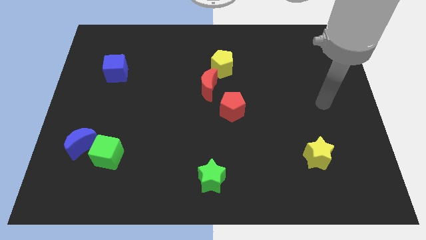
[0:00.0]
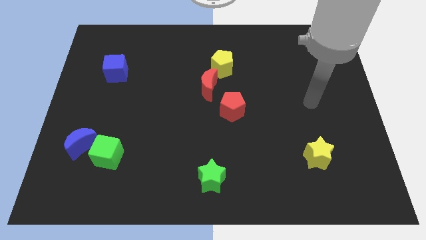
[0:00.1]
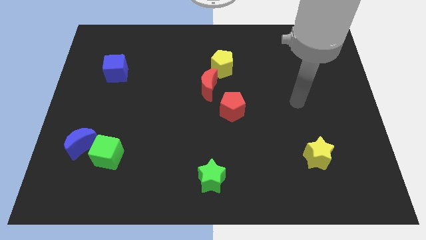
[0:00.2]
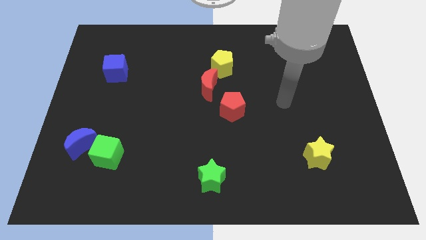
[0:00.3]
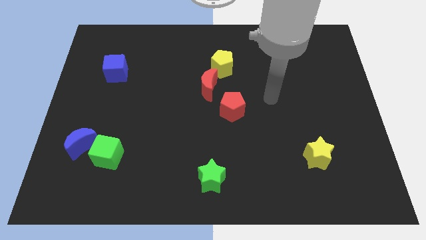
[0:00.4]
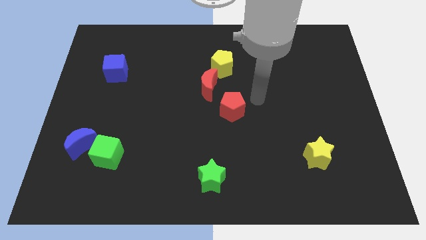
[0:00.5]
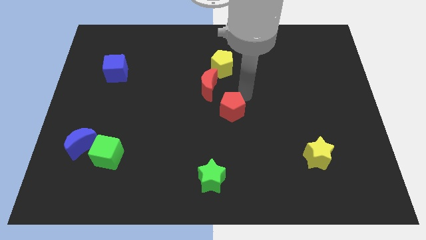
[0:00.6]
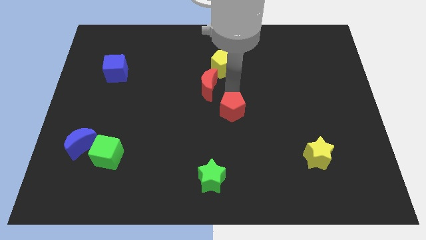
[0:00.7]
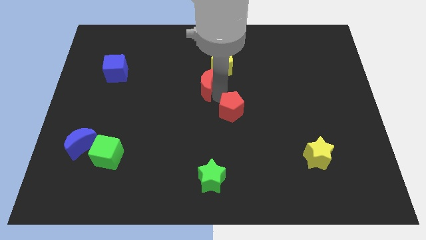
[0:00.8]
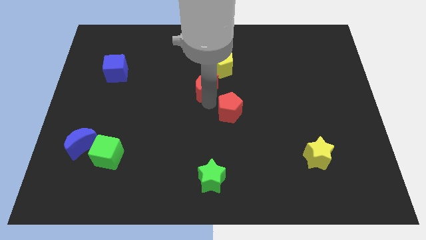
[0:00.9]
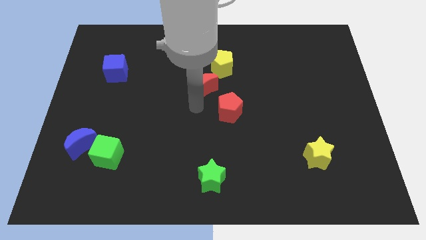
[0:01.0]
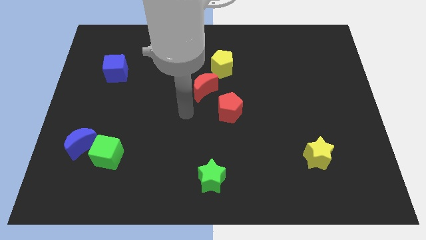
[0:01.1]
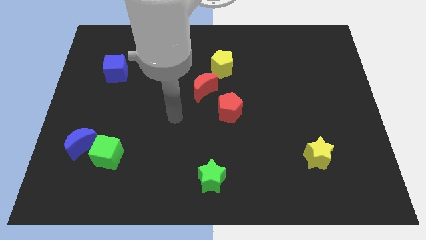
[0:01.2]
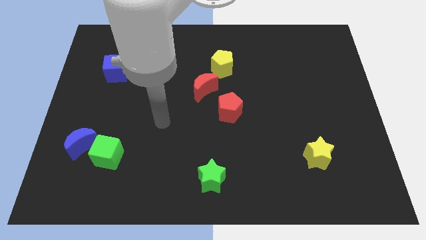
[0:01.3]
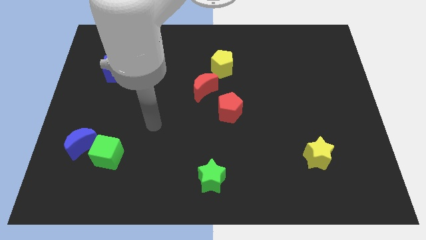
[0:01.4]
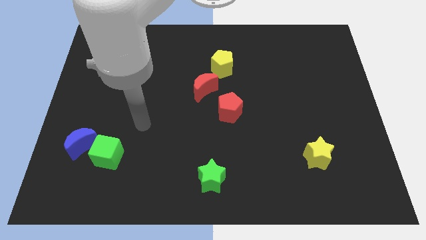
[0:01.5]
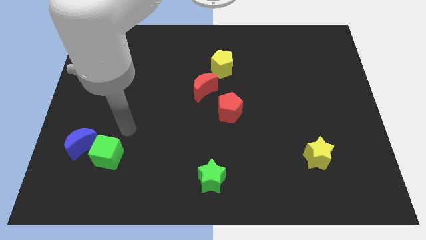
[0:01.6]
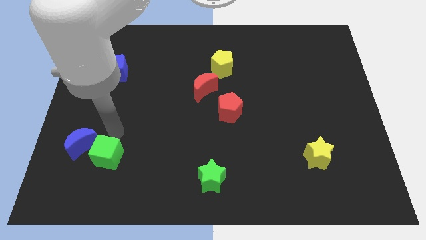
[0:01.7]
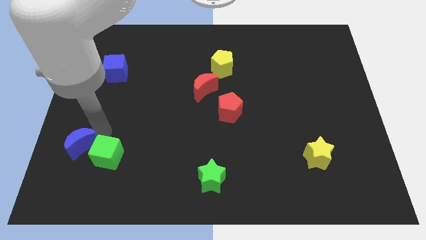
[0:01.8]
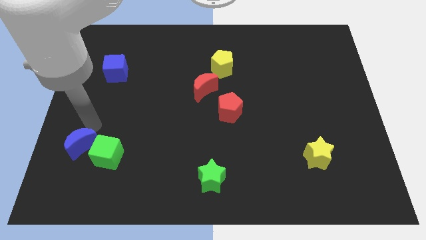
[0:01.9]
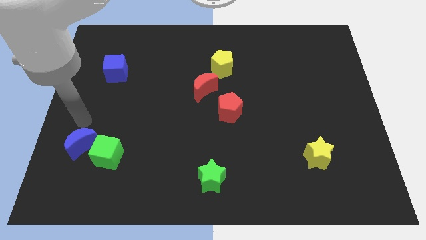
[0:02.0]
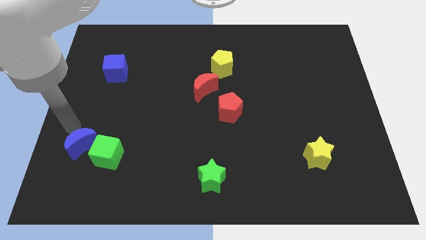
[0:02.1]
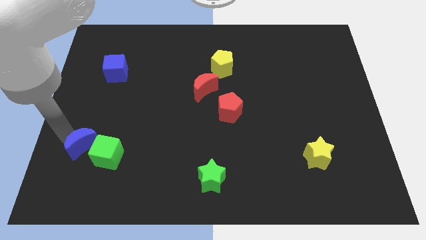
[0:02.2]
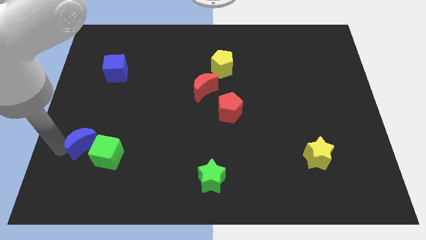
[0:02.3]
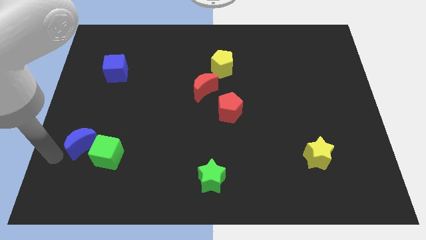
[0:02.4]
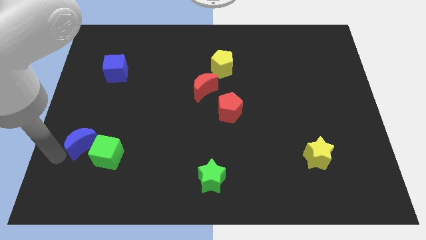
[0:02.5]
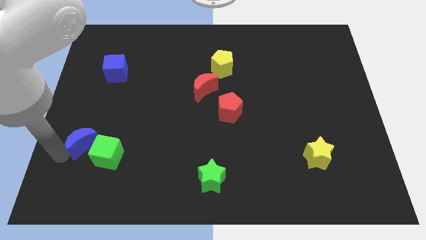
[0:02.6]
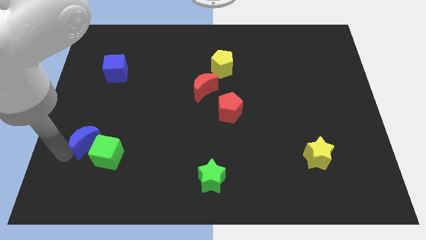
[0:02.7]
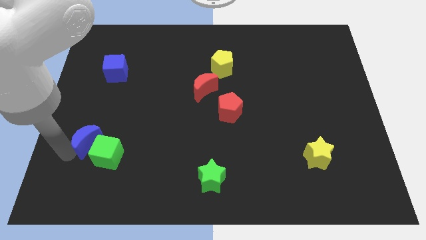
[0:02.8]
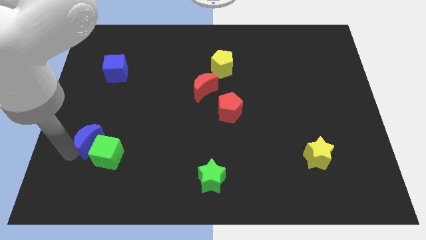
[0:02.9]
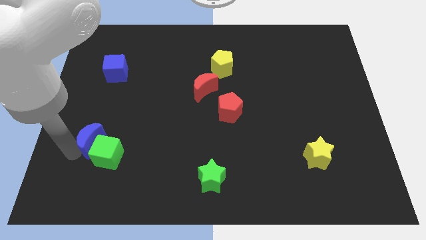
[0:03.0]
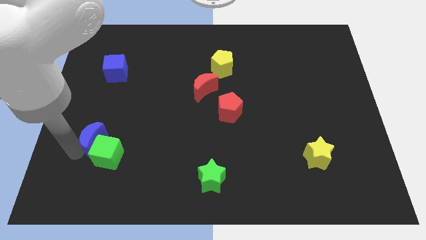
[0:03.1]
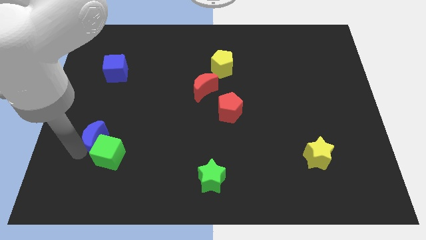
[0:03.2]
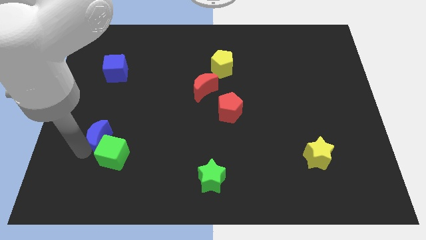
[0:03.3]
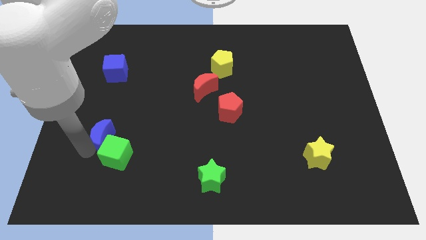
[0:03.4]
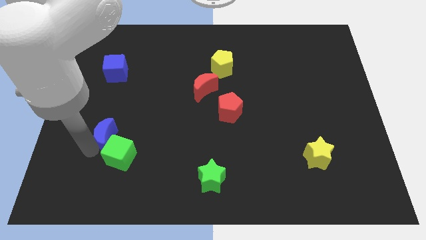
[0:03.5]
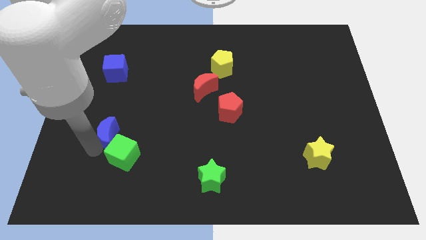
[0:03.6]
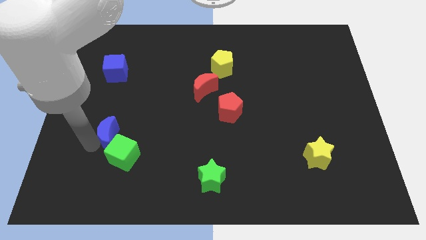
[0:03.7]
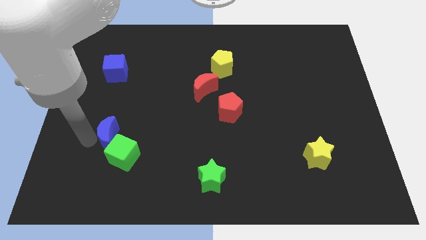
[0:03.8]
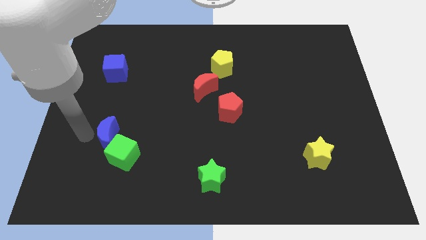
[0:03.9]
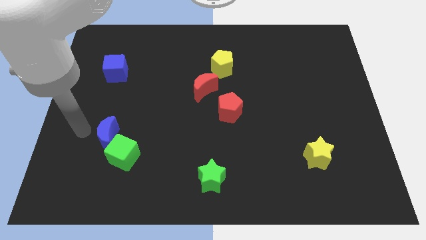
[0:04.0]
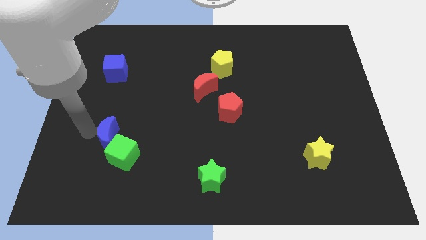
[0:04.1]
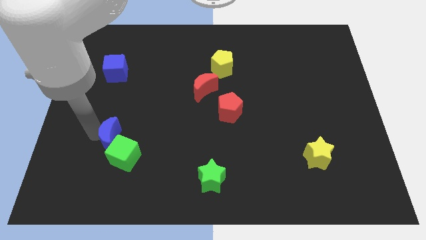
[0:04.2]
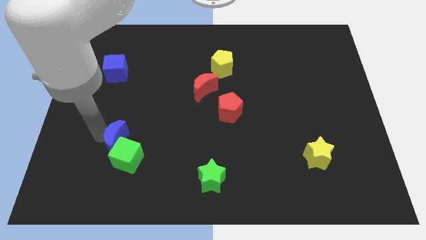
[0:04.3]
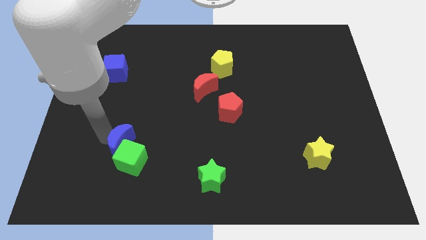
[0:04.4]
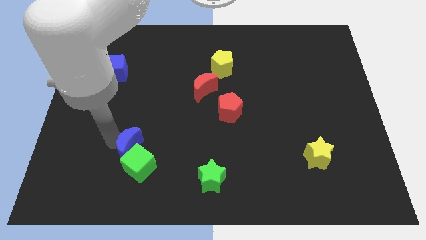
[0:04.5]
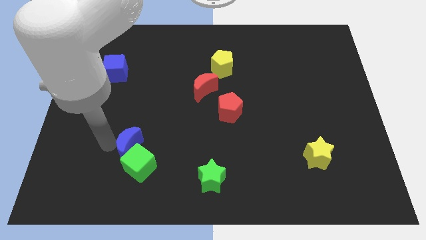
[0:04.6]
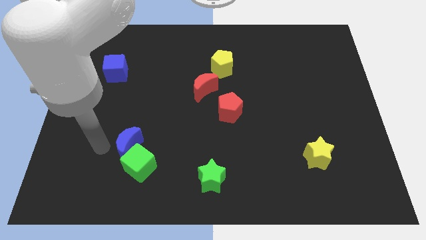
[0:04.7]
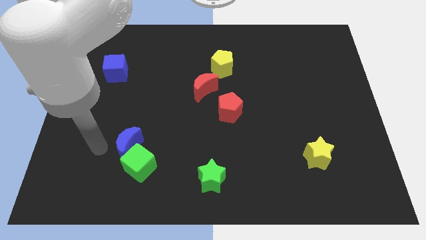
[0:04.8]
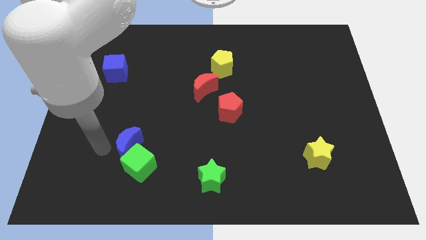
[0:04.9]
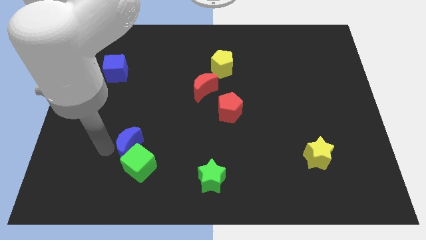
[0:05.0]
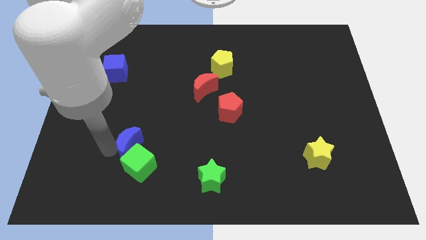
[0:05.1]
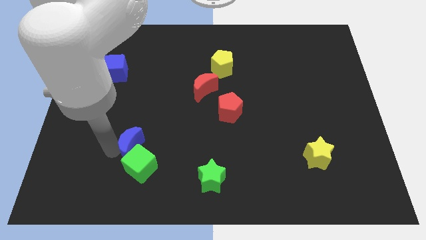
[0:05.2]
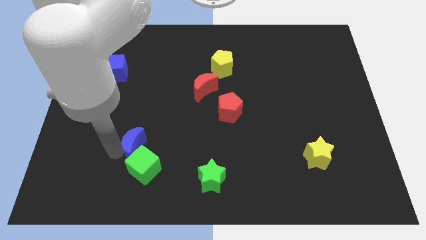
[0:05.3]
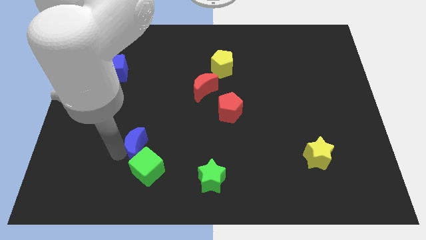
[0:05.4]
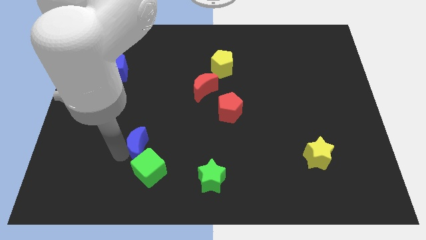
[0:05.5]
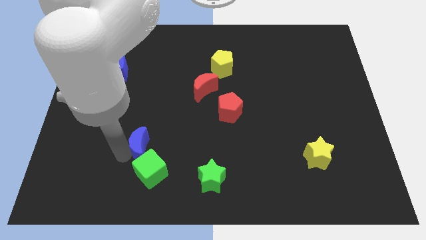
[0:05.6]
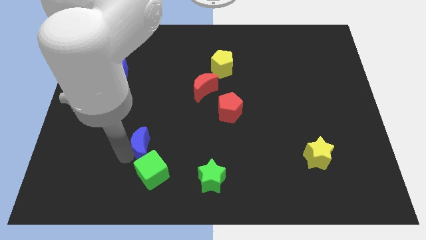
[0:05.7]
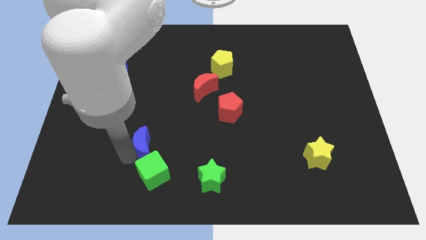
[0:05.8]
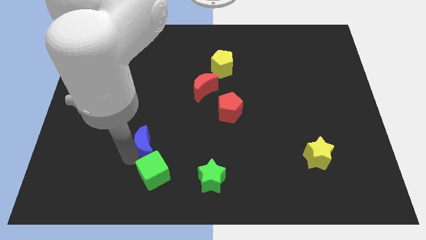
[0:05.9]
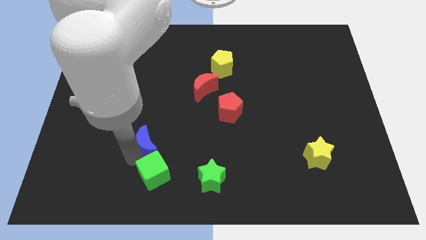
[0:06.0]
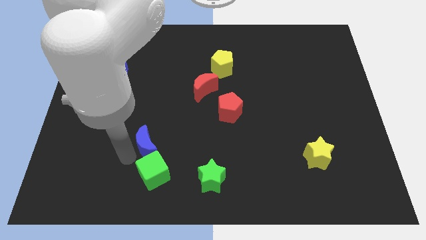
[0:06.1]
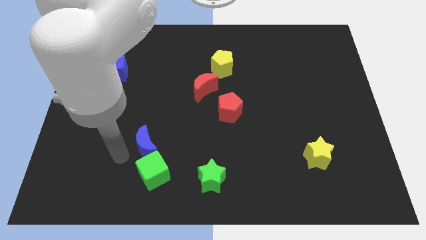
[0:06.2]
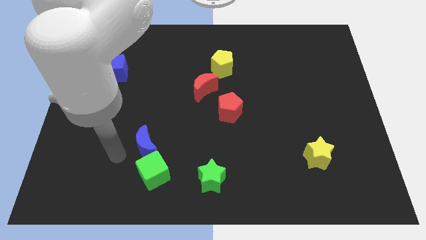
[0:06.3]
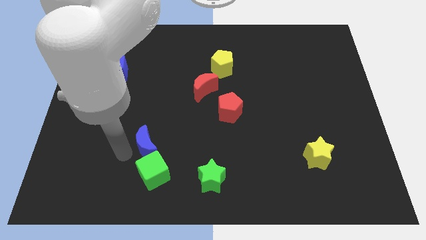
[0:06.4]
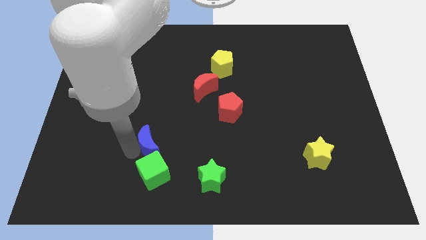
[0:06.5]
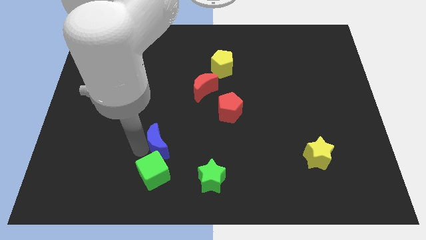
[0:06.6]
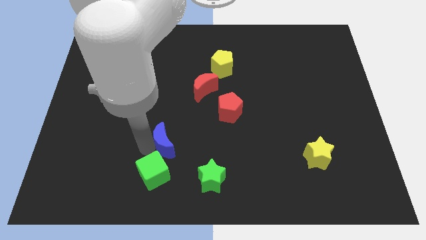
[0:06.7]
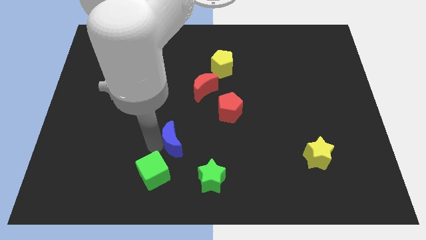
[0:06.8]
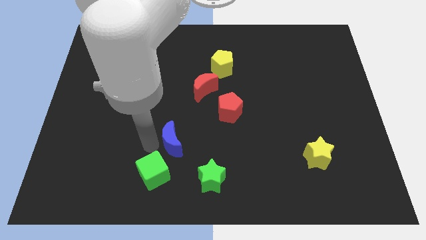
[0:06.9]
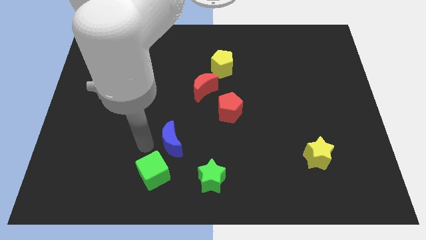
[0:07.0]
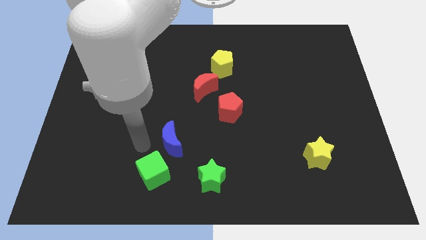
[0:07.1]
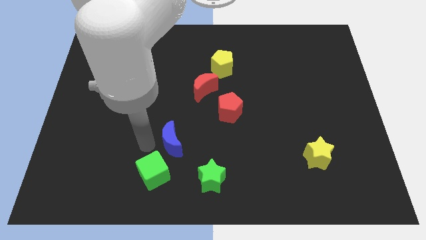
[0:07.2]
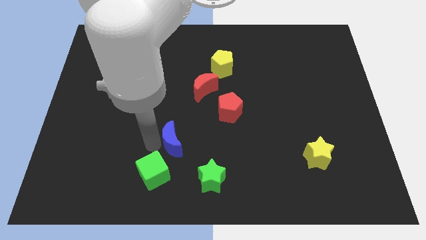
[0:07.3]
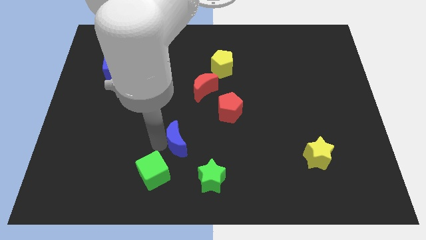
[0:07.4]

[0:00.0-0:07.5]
push the blue moon to the right

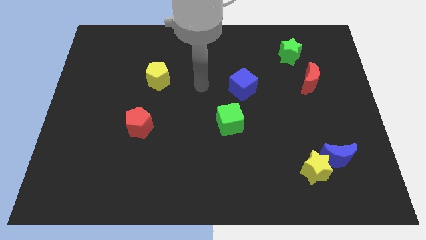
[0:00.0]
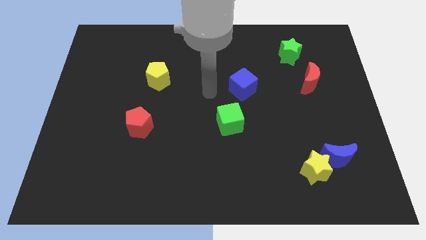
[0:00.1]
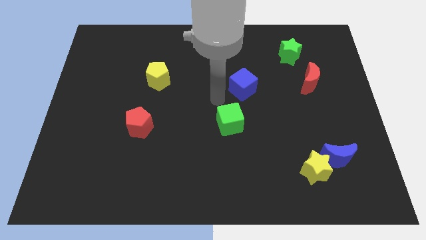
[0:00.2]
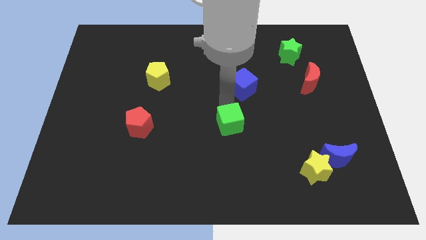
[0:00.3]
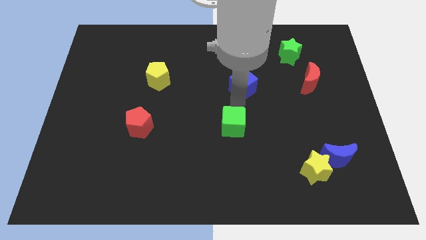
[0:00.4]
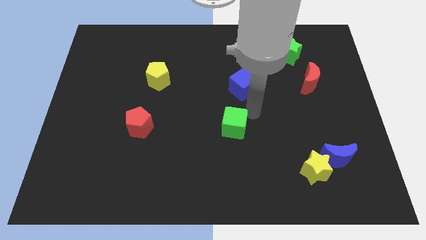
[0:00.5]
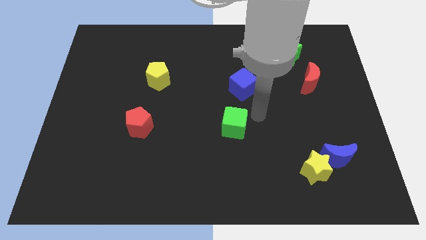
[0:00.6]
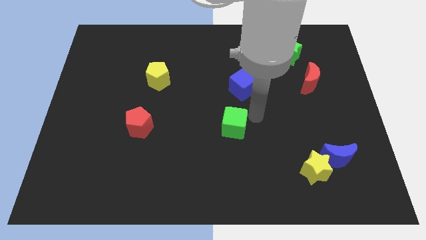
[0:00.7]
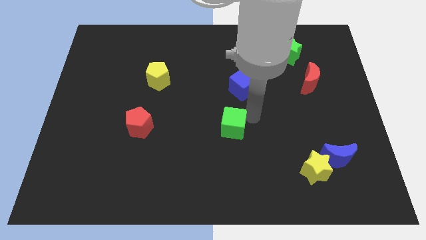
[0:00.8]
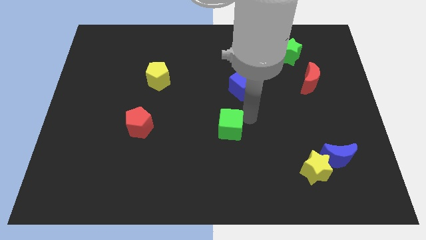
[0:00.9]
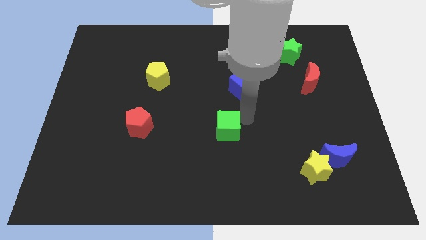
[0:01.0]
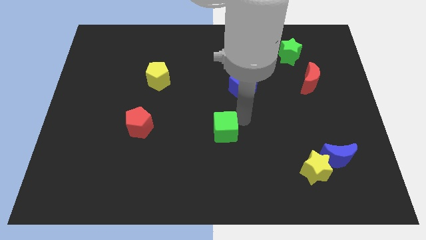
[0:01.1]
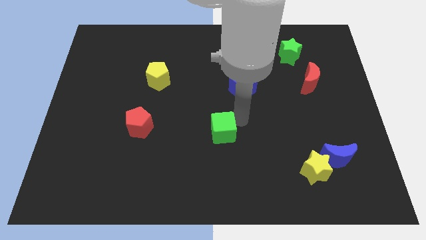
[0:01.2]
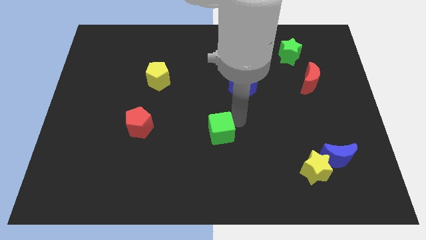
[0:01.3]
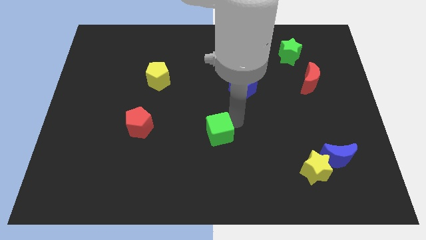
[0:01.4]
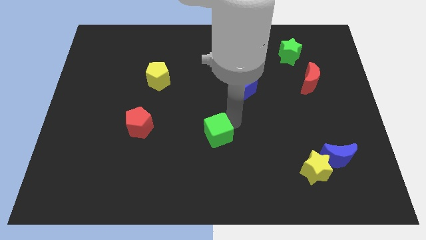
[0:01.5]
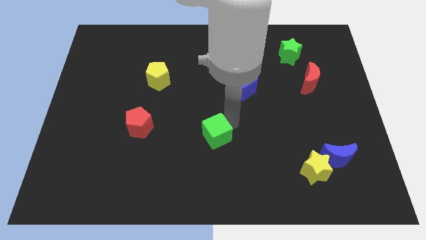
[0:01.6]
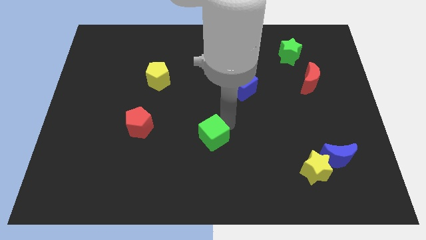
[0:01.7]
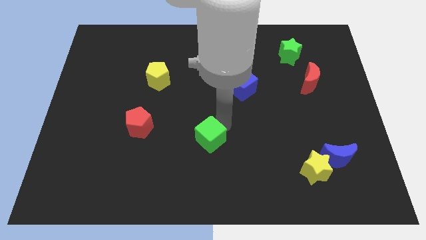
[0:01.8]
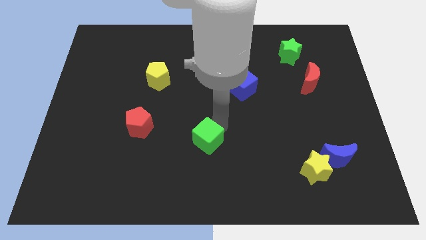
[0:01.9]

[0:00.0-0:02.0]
move the green cube slightly diagonally downwards and to the left
